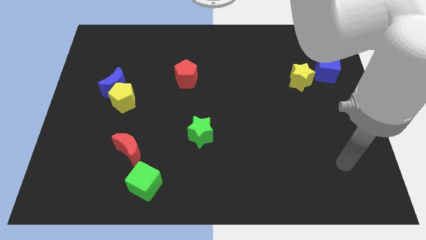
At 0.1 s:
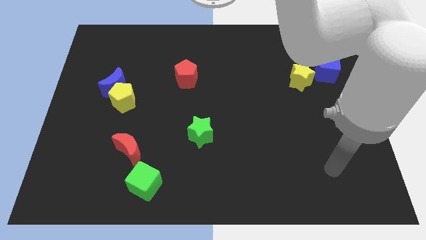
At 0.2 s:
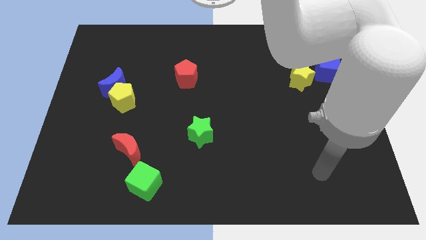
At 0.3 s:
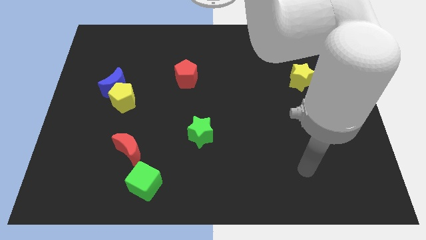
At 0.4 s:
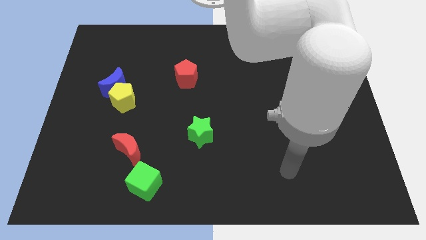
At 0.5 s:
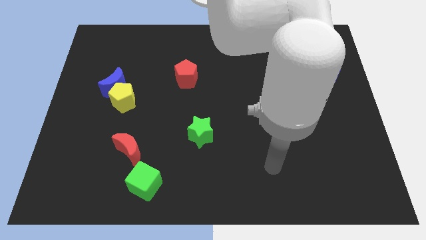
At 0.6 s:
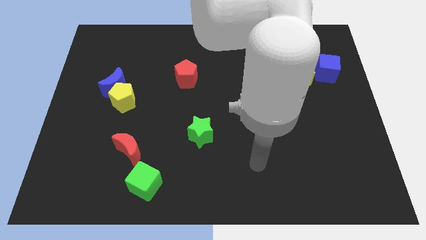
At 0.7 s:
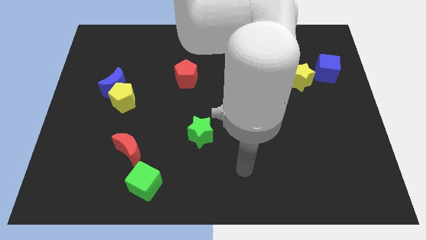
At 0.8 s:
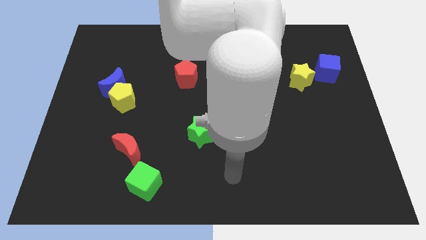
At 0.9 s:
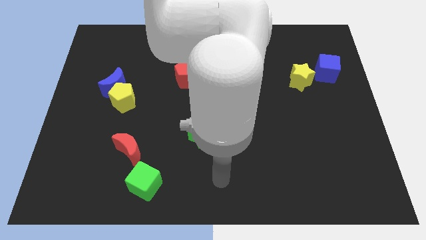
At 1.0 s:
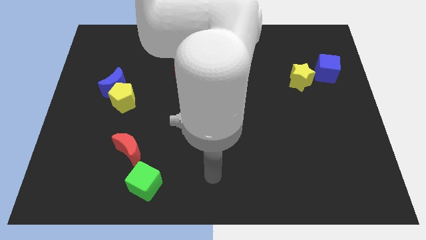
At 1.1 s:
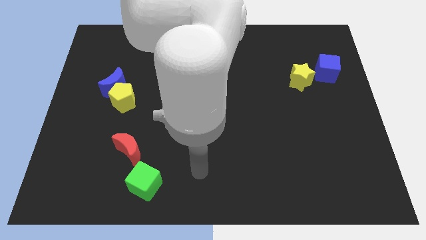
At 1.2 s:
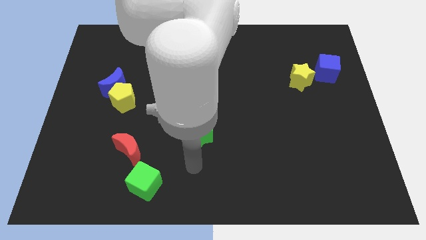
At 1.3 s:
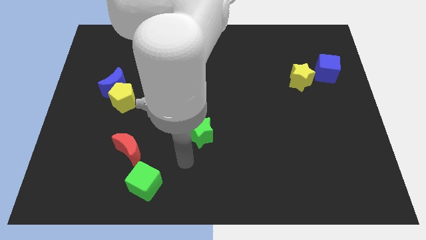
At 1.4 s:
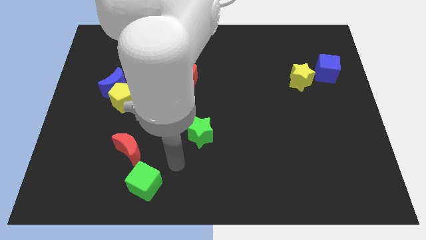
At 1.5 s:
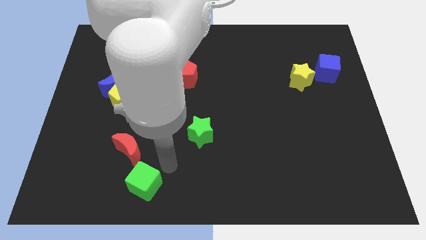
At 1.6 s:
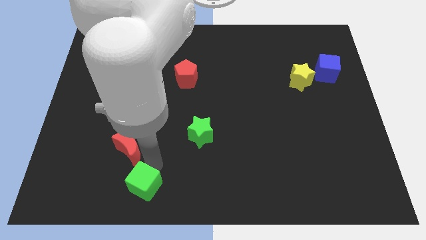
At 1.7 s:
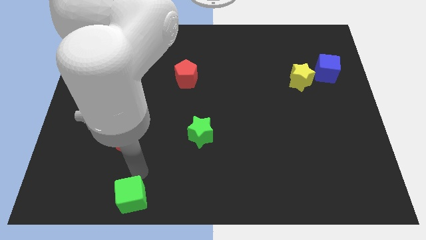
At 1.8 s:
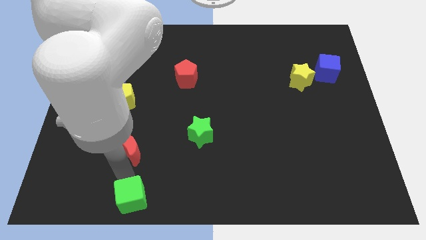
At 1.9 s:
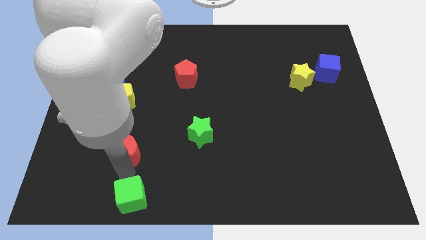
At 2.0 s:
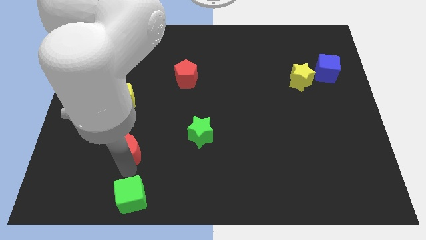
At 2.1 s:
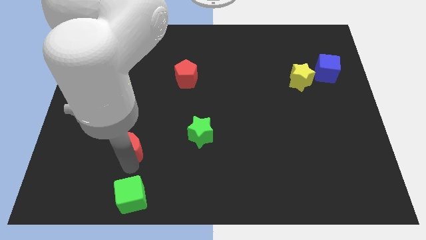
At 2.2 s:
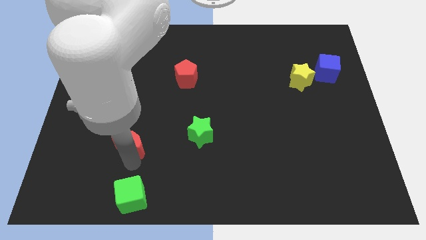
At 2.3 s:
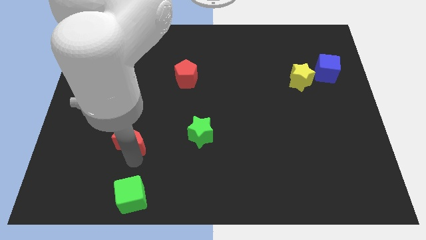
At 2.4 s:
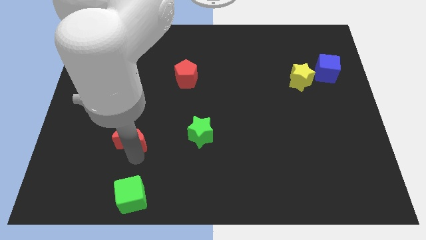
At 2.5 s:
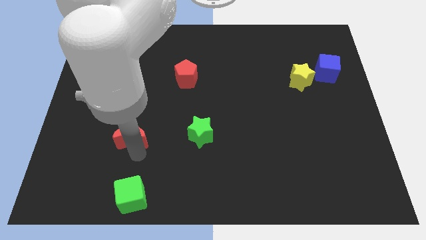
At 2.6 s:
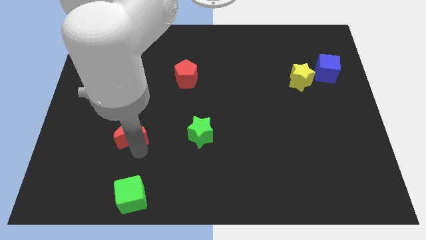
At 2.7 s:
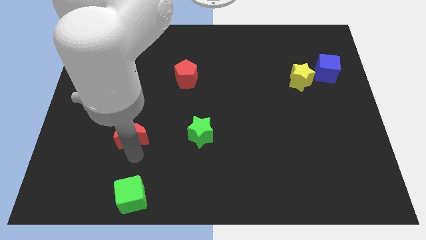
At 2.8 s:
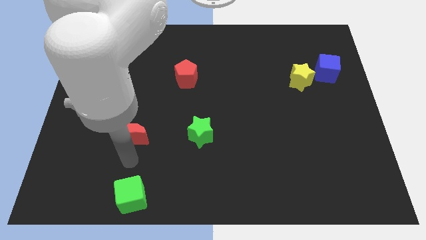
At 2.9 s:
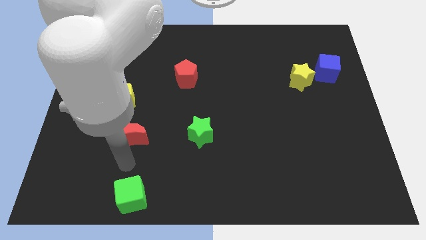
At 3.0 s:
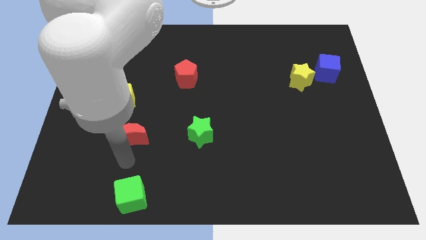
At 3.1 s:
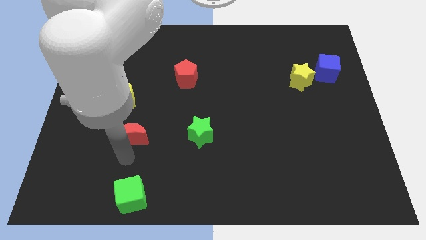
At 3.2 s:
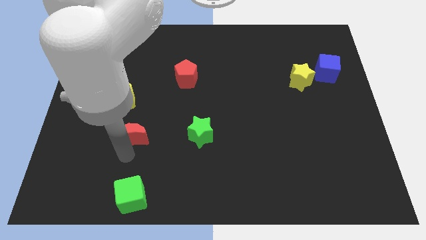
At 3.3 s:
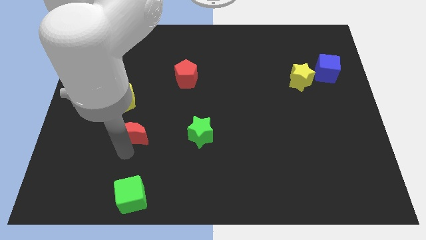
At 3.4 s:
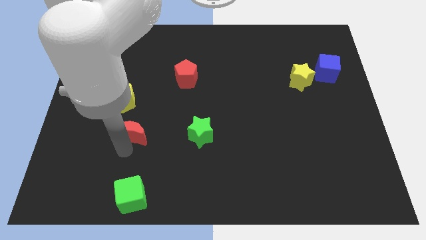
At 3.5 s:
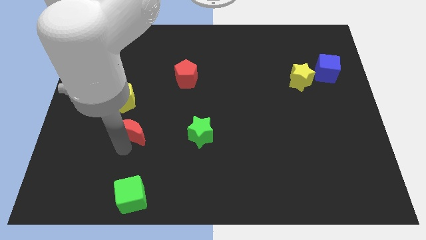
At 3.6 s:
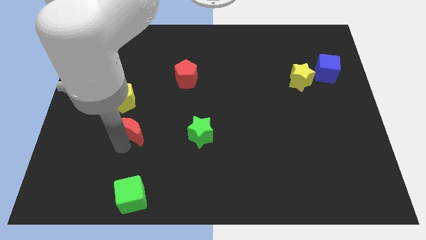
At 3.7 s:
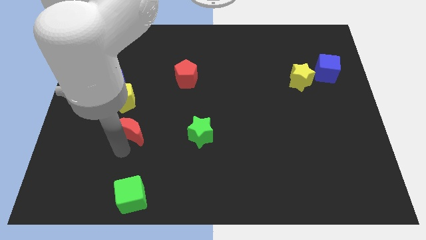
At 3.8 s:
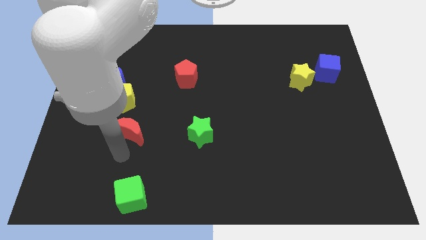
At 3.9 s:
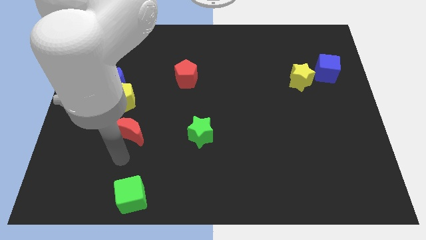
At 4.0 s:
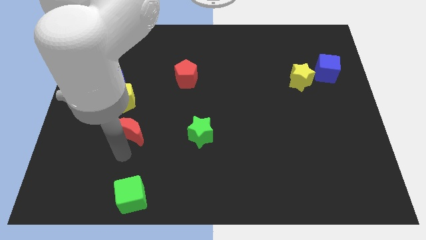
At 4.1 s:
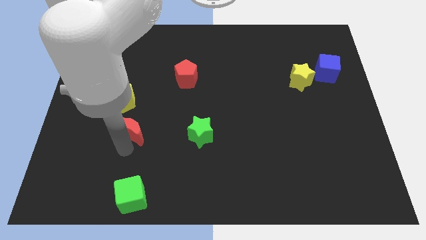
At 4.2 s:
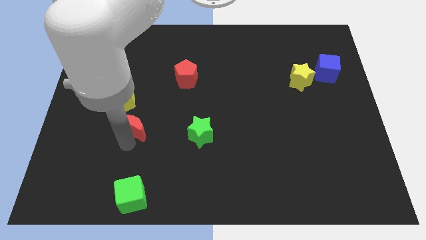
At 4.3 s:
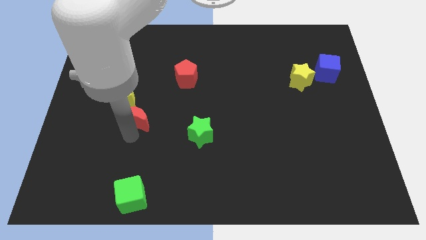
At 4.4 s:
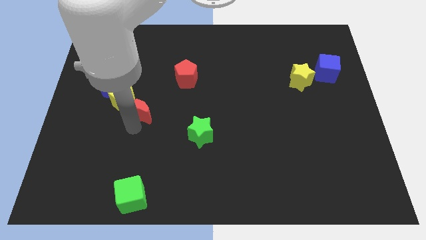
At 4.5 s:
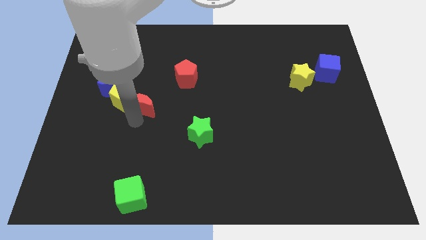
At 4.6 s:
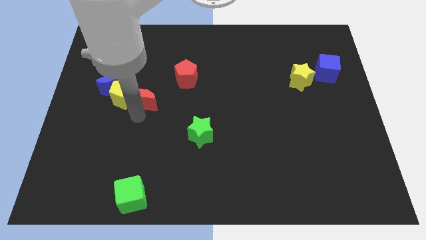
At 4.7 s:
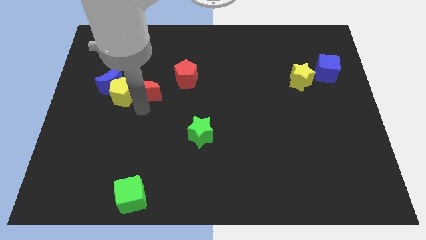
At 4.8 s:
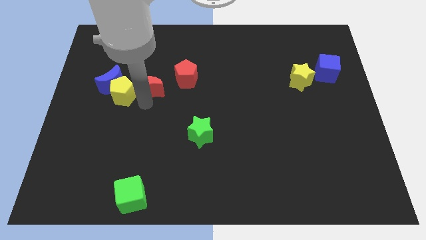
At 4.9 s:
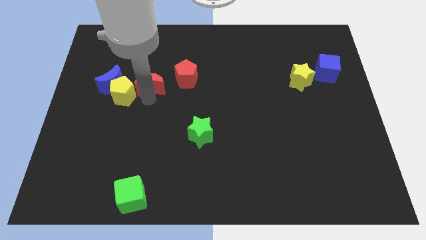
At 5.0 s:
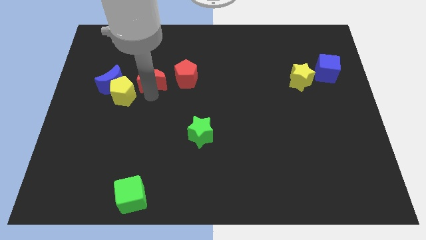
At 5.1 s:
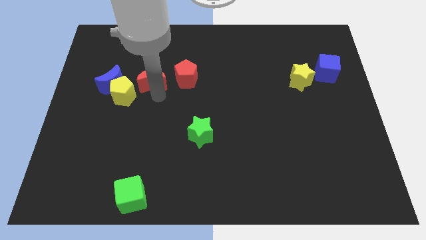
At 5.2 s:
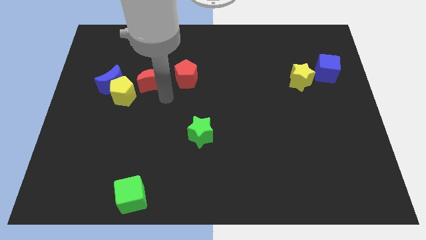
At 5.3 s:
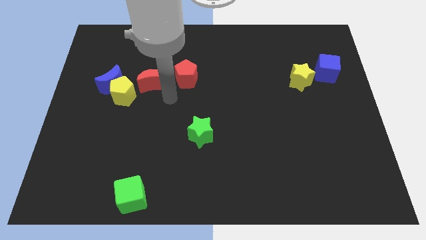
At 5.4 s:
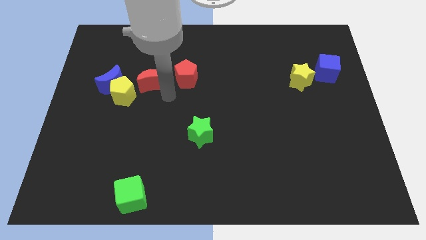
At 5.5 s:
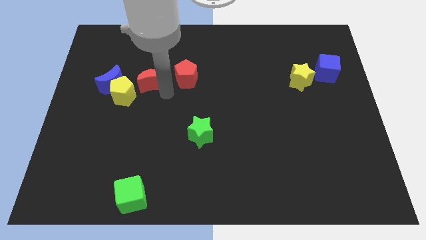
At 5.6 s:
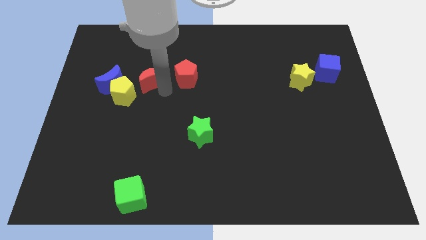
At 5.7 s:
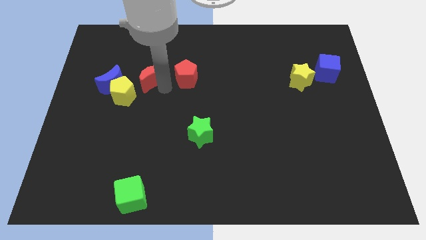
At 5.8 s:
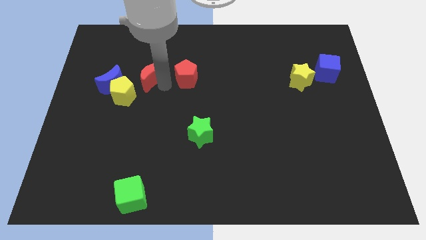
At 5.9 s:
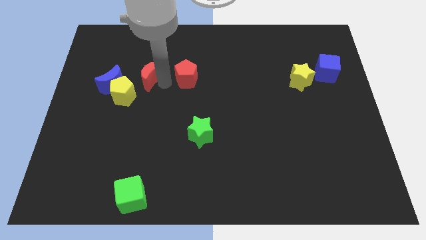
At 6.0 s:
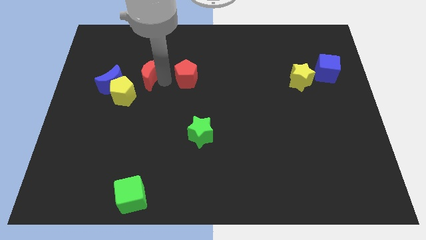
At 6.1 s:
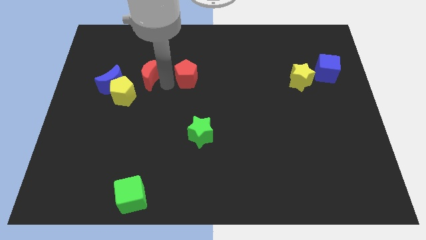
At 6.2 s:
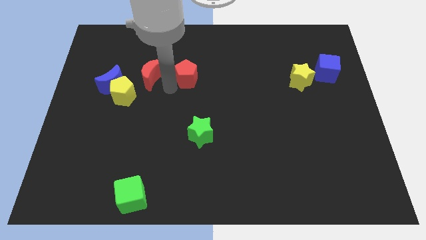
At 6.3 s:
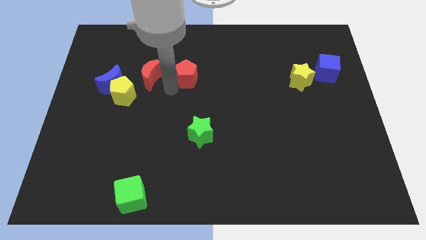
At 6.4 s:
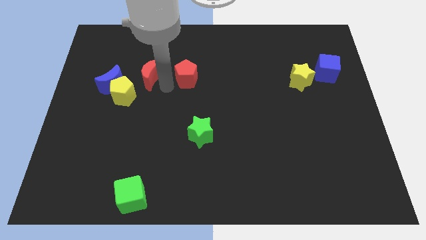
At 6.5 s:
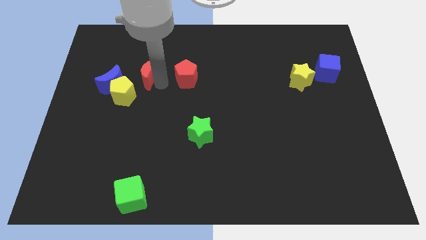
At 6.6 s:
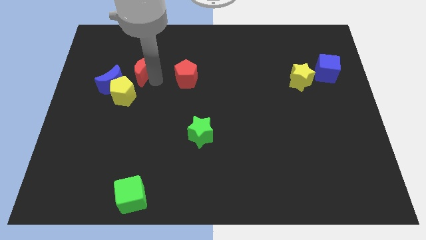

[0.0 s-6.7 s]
put the red moon to the top of the yellow pentagon
